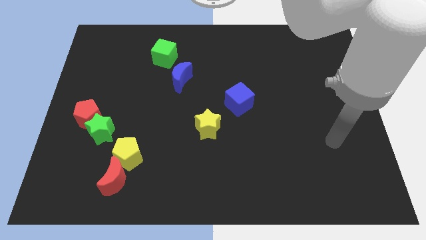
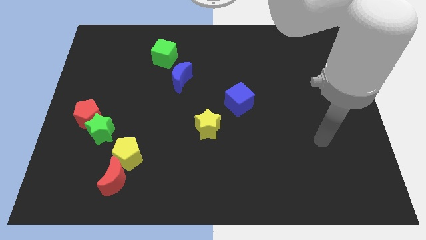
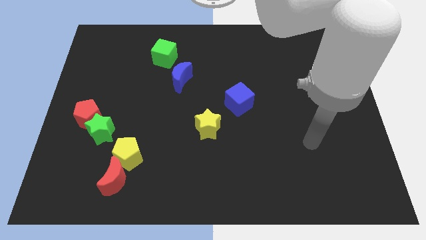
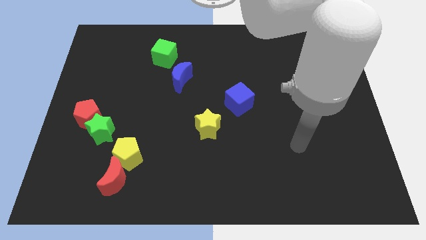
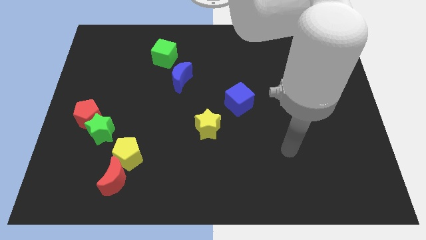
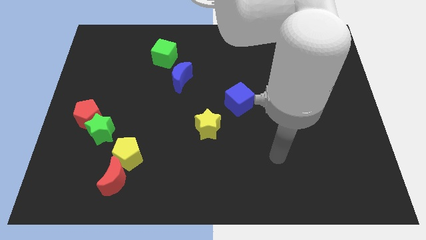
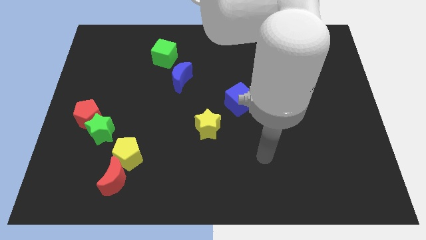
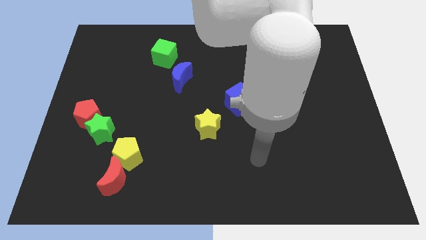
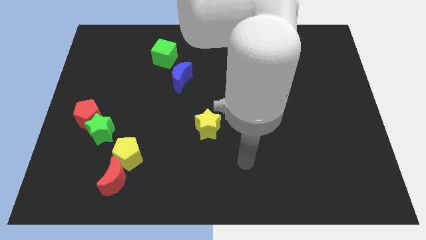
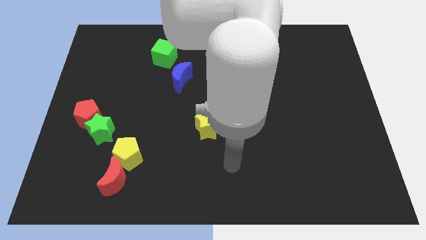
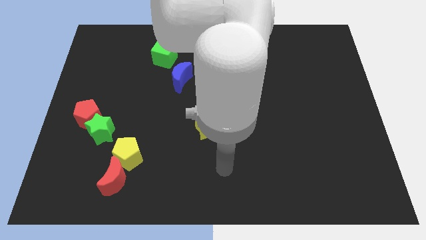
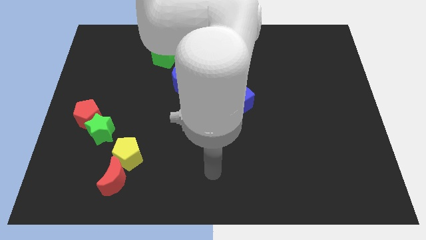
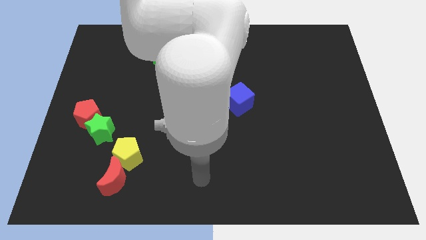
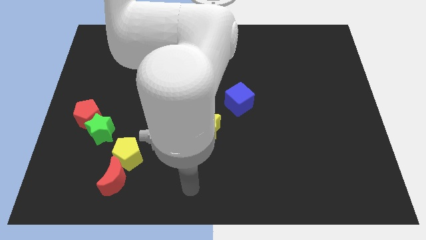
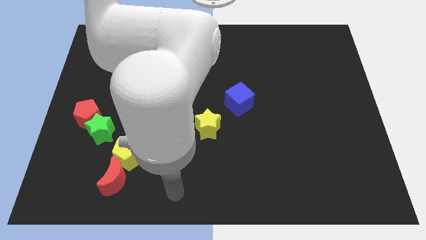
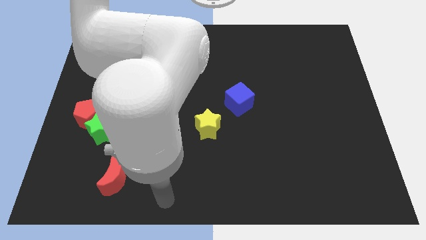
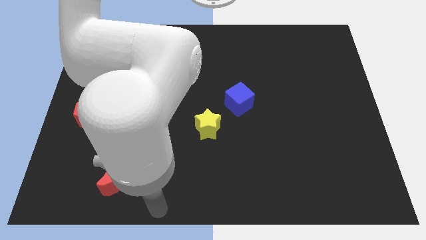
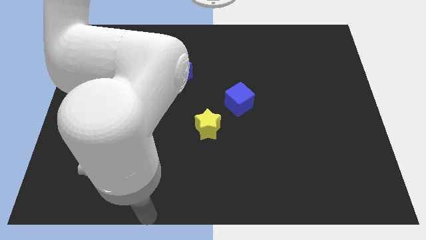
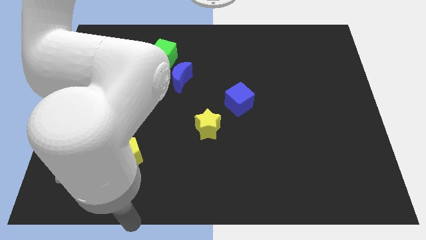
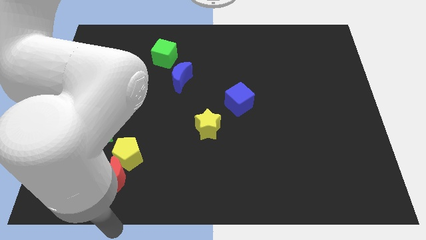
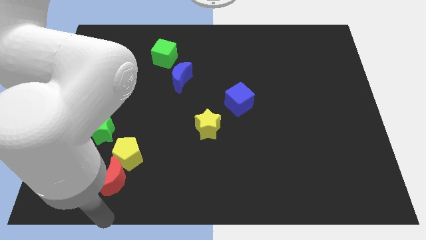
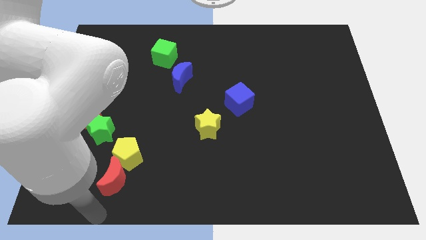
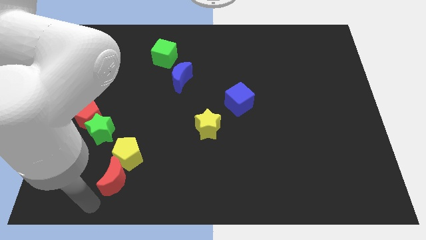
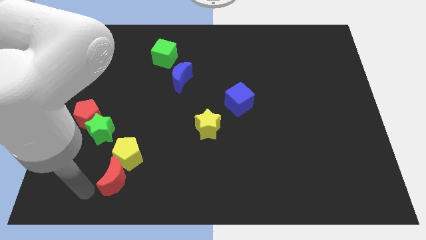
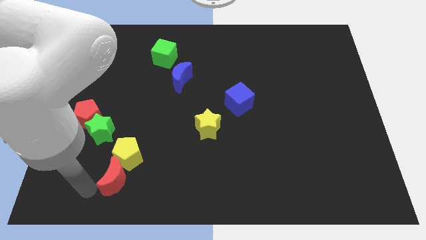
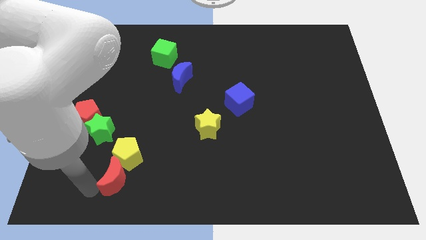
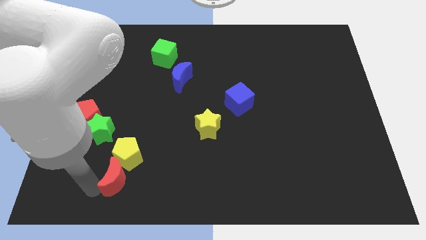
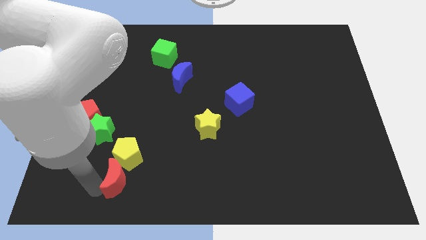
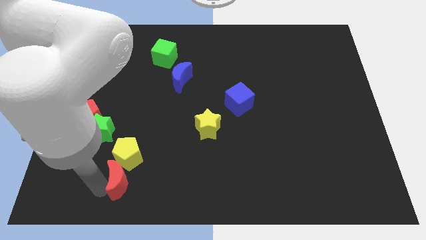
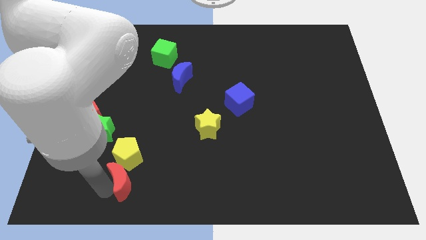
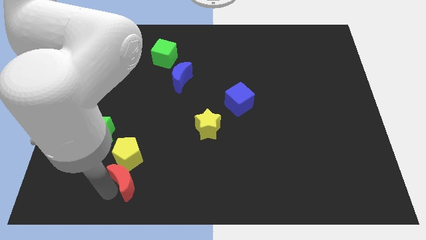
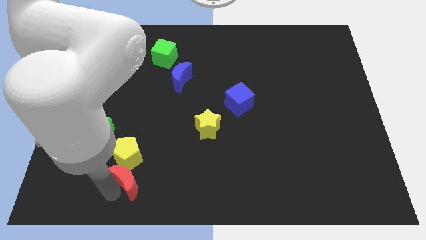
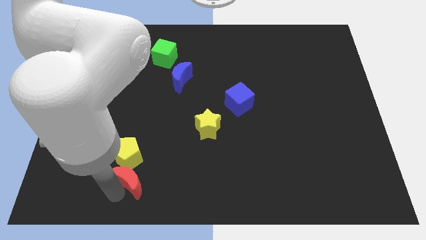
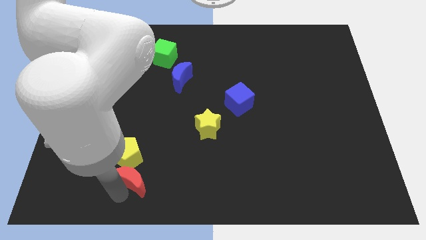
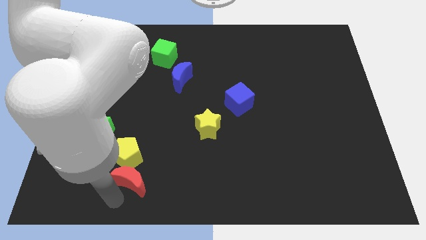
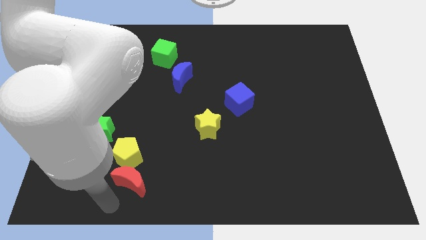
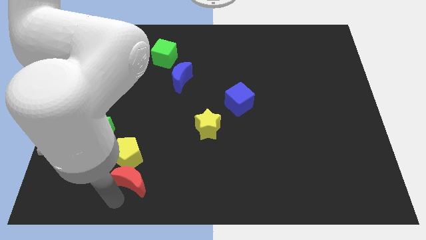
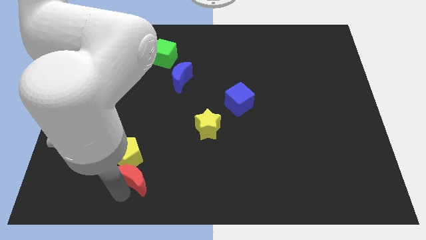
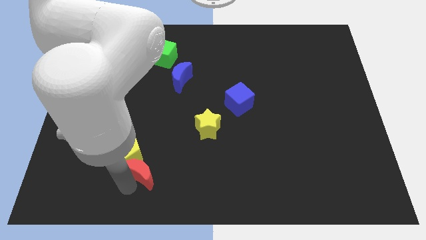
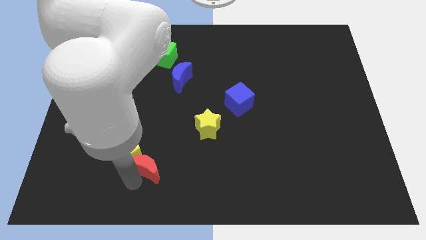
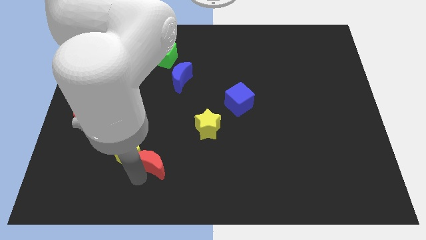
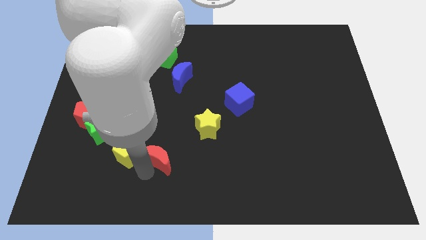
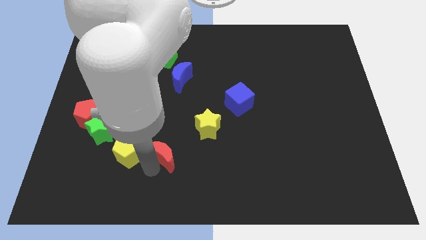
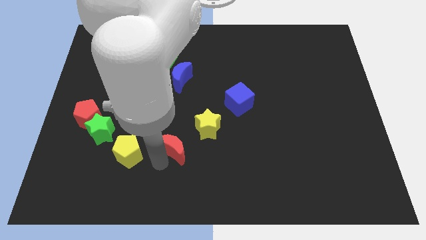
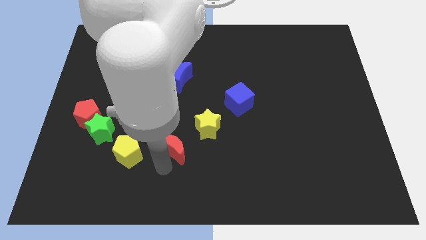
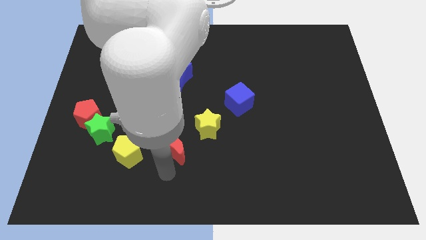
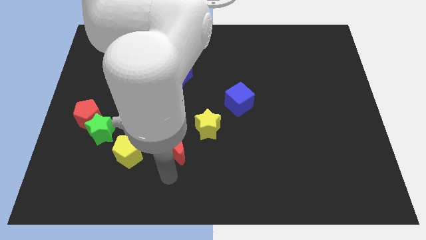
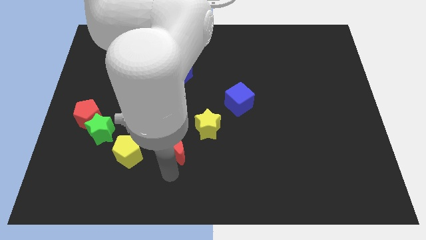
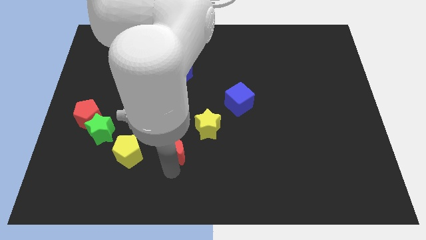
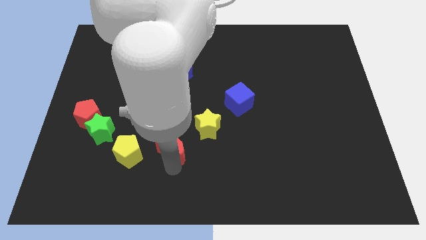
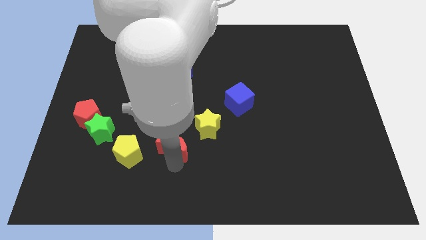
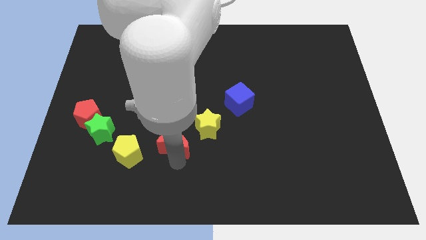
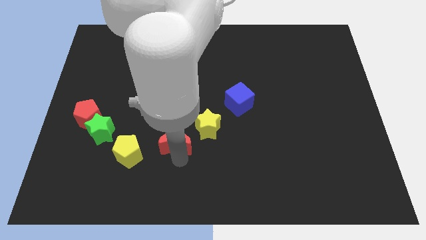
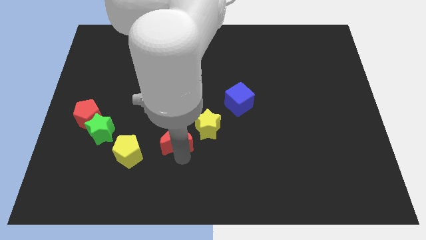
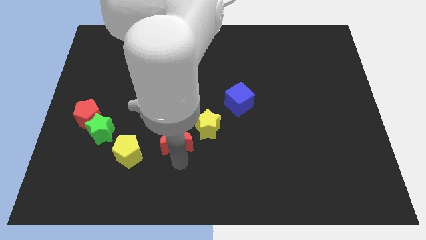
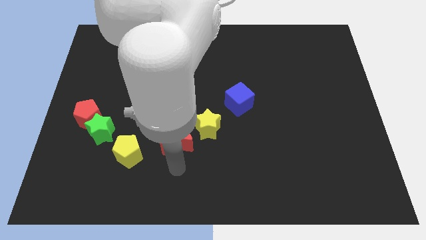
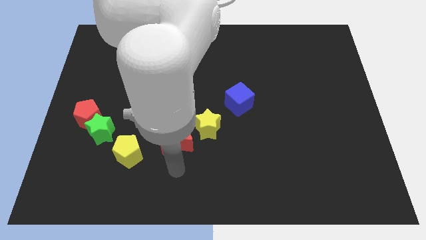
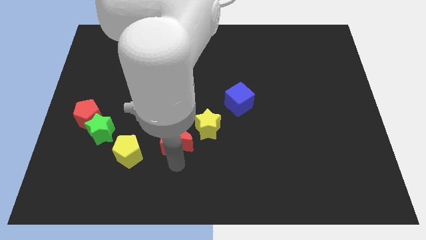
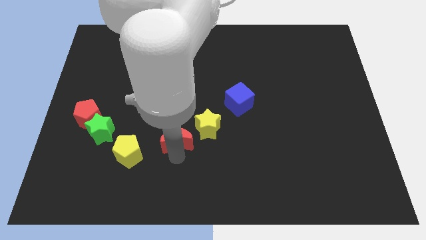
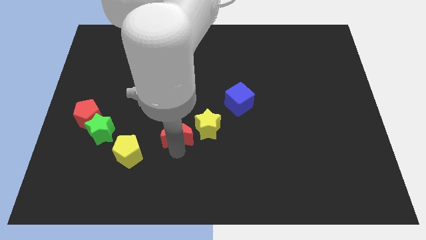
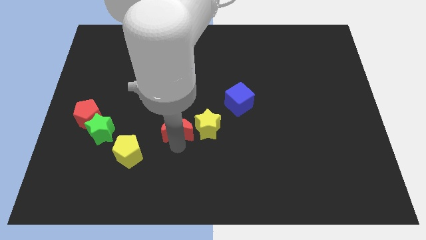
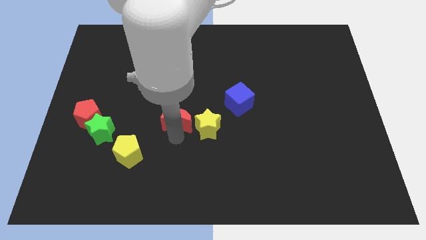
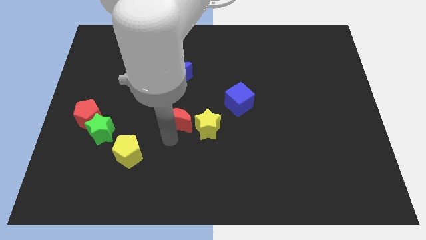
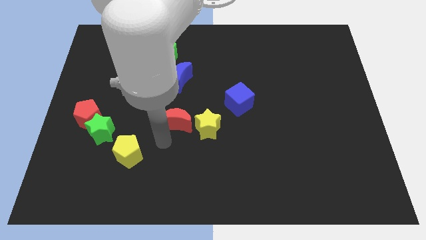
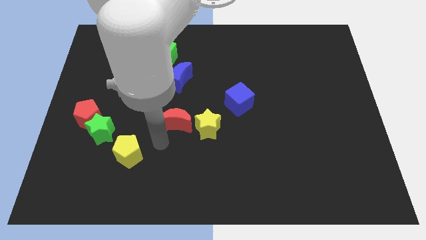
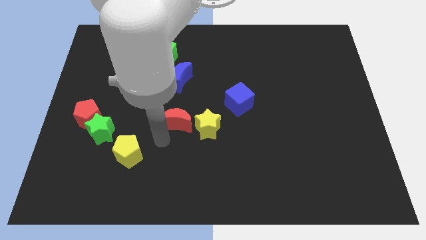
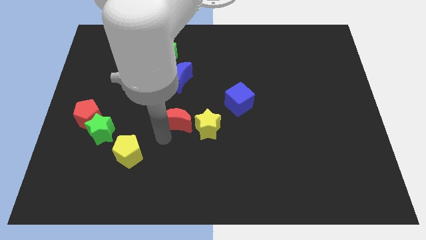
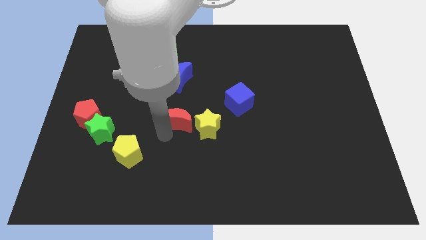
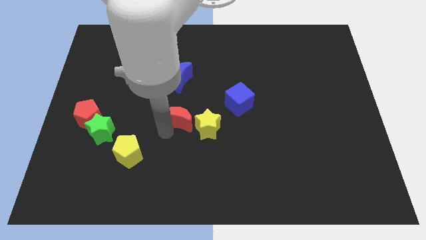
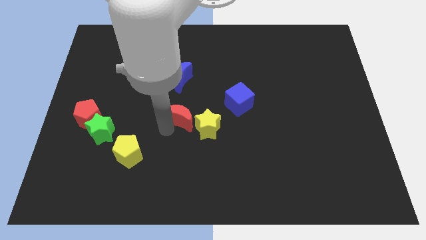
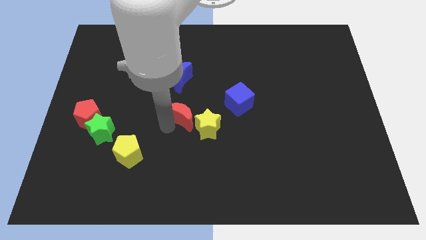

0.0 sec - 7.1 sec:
slide the red moon left of the blue cube
